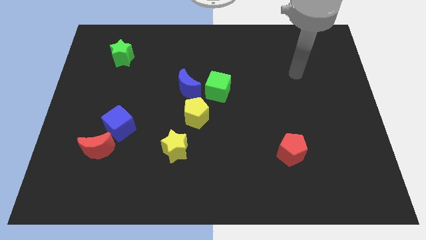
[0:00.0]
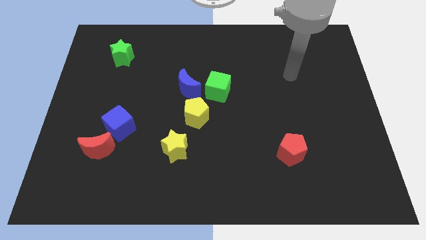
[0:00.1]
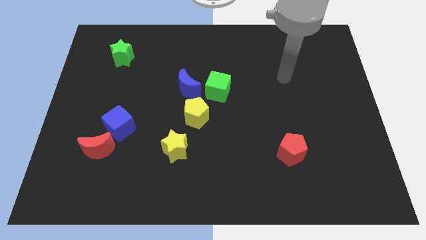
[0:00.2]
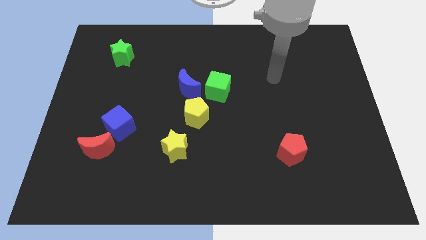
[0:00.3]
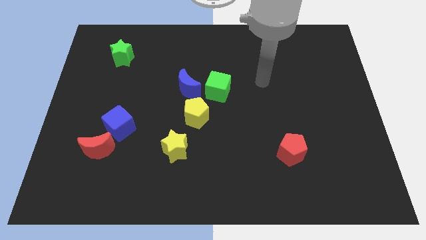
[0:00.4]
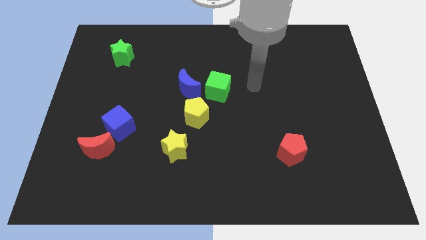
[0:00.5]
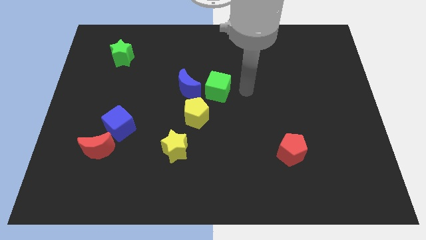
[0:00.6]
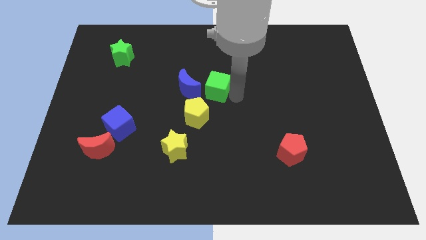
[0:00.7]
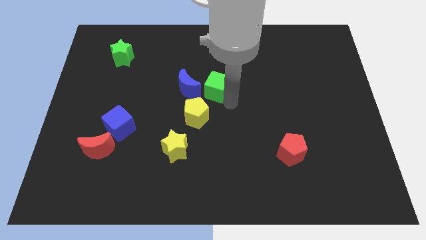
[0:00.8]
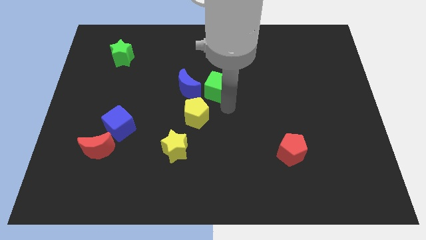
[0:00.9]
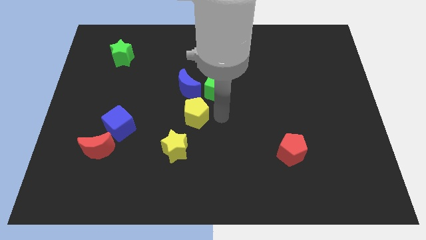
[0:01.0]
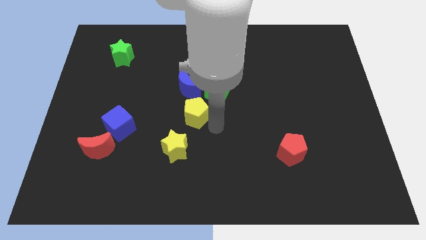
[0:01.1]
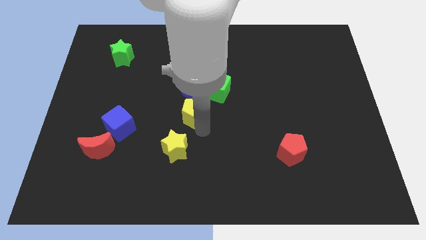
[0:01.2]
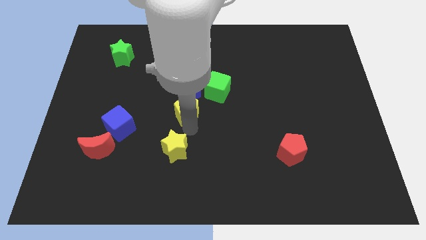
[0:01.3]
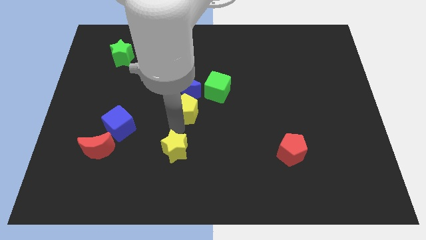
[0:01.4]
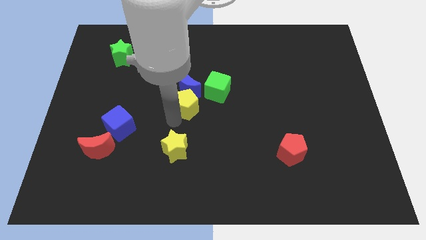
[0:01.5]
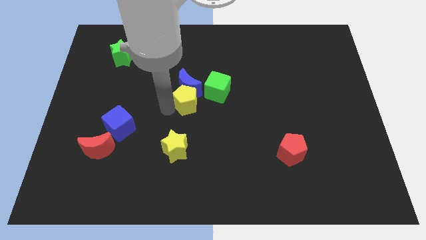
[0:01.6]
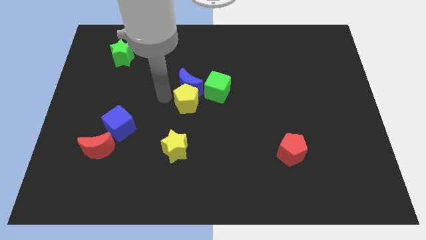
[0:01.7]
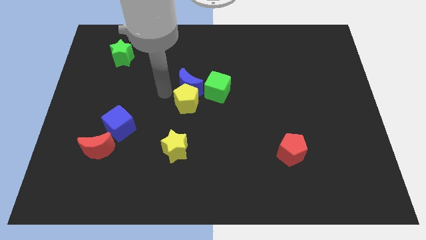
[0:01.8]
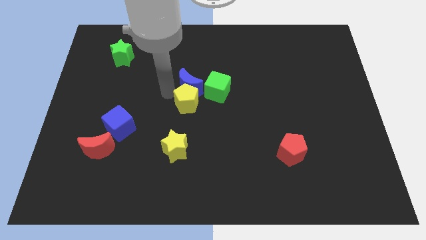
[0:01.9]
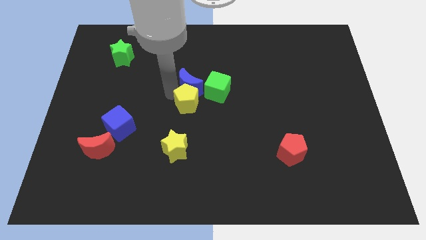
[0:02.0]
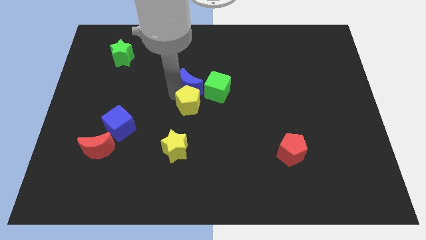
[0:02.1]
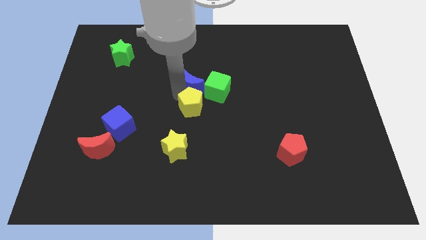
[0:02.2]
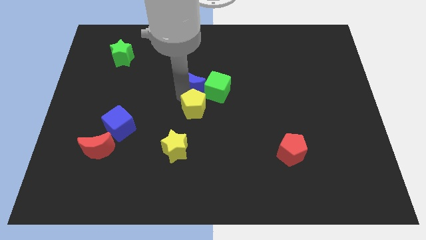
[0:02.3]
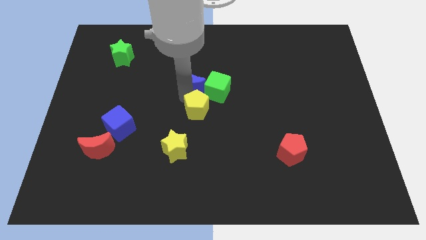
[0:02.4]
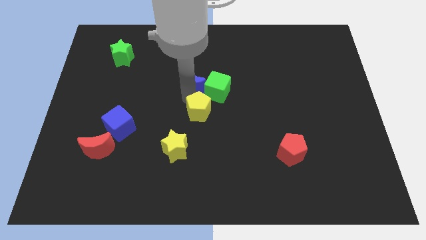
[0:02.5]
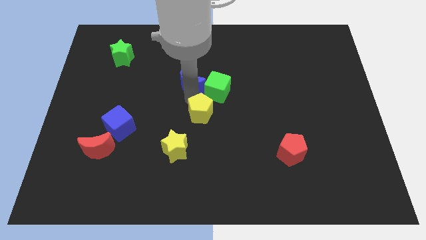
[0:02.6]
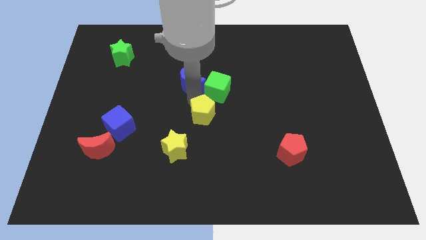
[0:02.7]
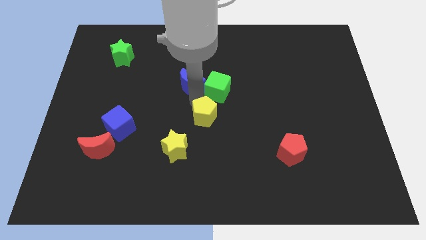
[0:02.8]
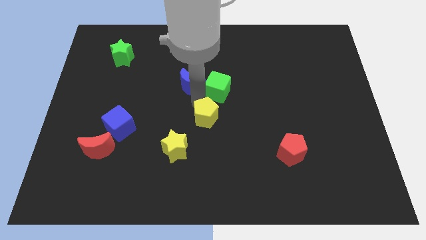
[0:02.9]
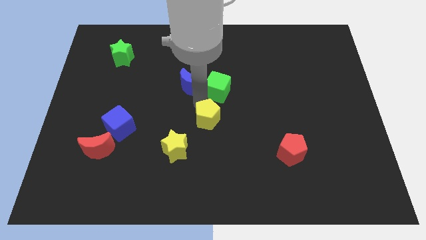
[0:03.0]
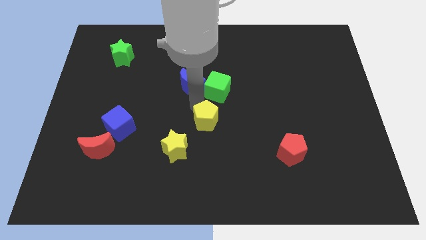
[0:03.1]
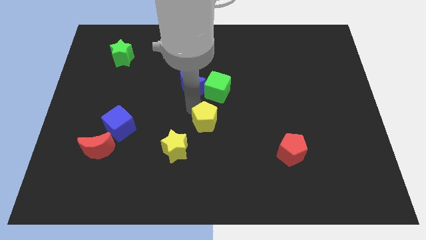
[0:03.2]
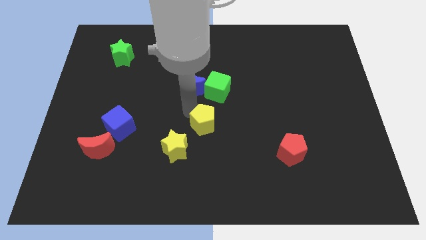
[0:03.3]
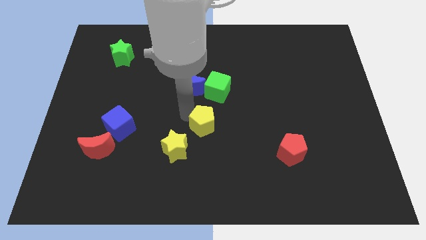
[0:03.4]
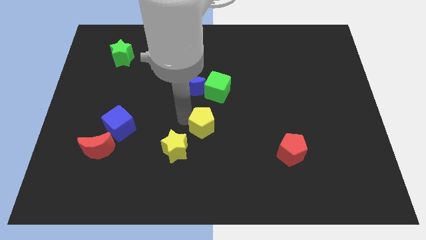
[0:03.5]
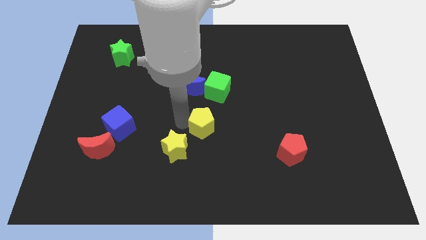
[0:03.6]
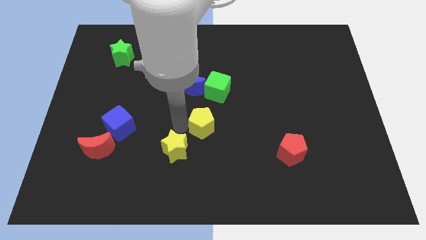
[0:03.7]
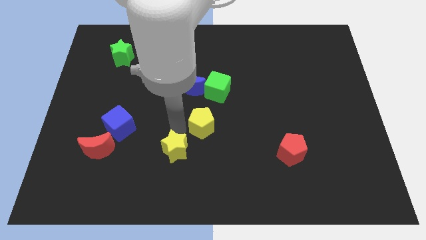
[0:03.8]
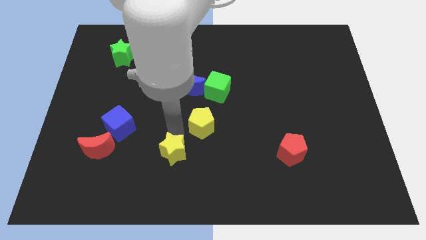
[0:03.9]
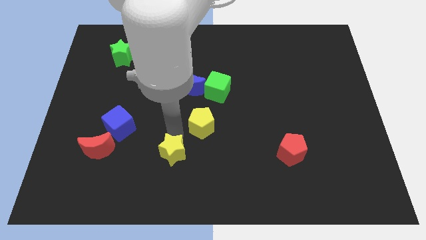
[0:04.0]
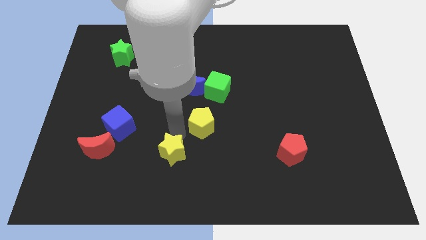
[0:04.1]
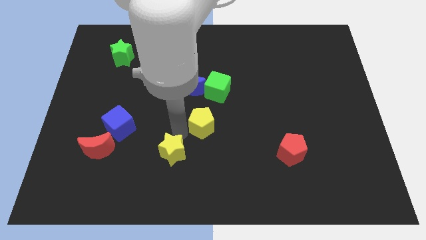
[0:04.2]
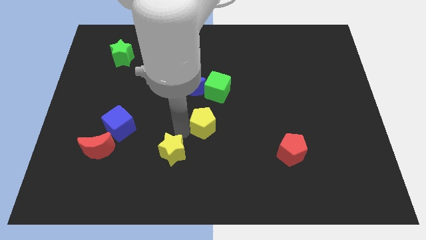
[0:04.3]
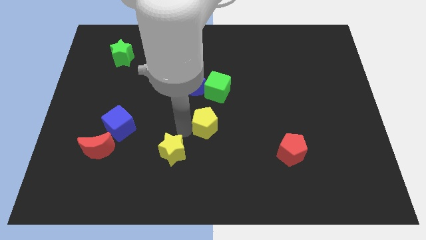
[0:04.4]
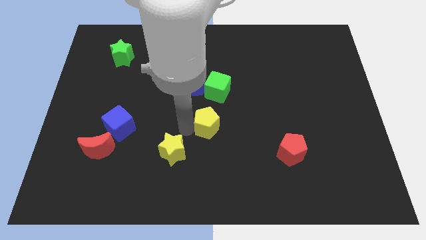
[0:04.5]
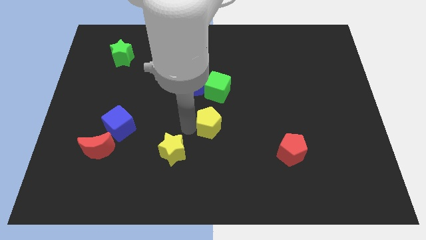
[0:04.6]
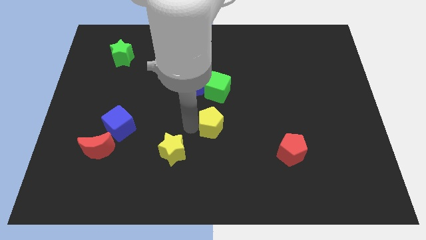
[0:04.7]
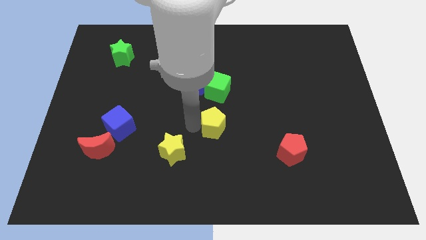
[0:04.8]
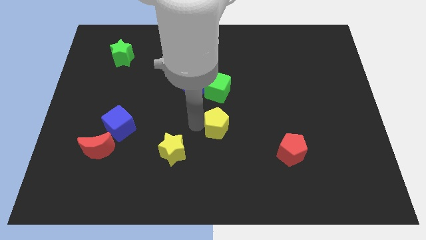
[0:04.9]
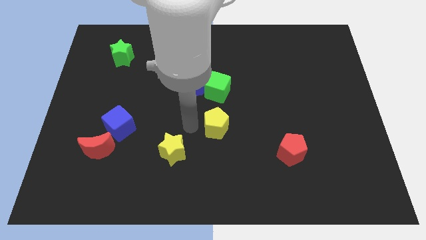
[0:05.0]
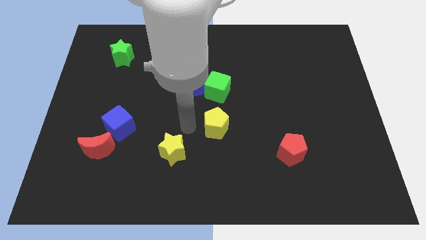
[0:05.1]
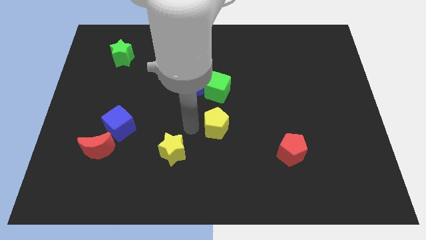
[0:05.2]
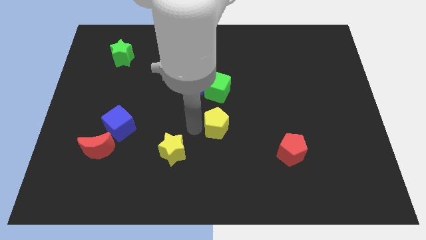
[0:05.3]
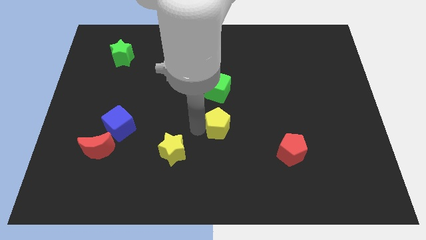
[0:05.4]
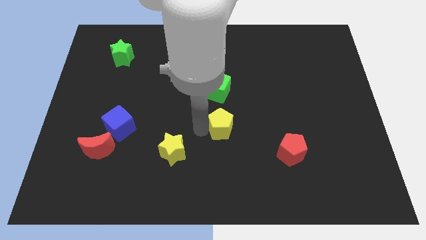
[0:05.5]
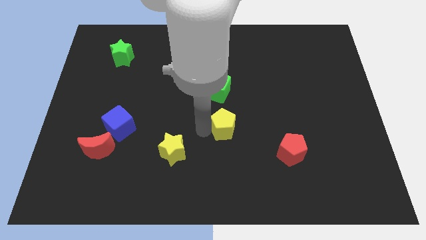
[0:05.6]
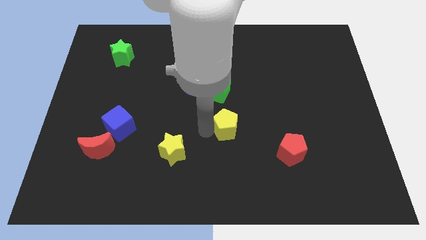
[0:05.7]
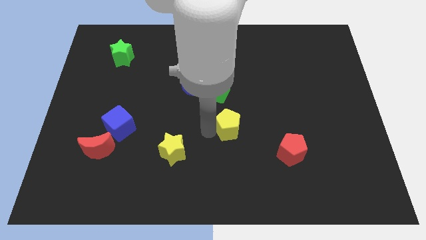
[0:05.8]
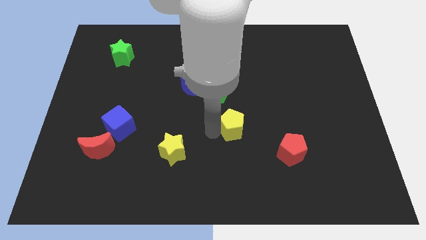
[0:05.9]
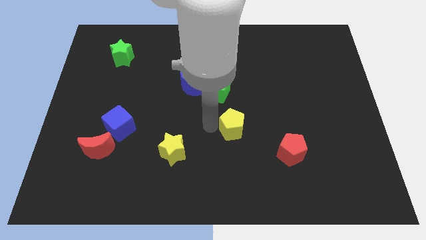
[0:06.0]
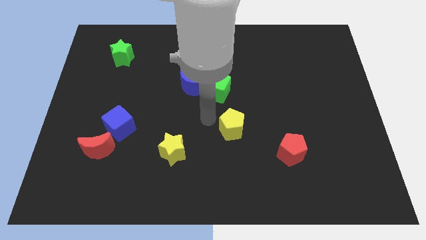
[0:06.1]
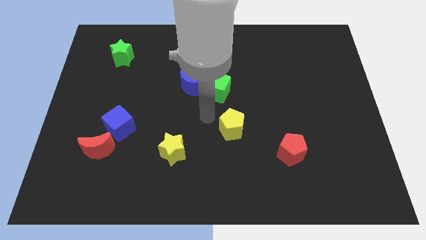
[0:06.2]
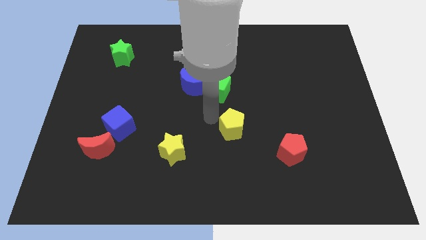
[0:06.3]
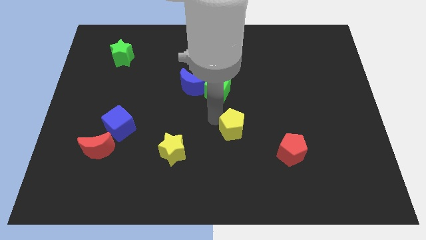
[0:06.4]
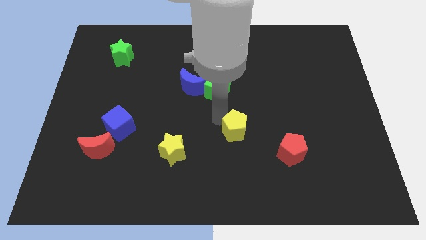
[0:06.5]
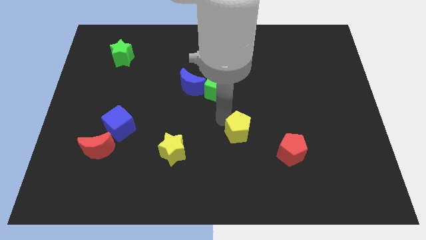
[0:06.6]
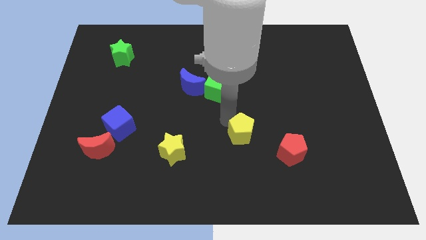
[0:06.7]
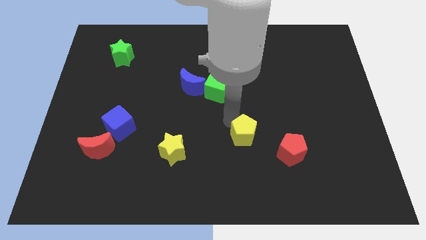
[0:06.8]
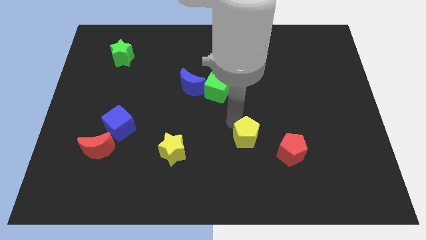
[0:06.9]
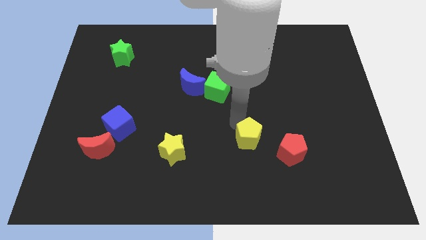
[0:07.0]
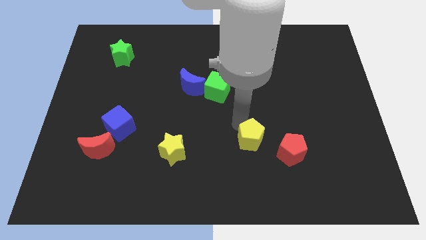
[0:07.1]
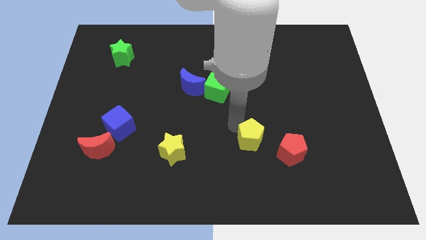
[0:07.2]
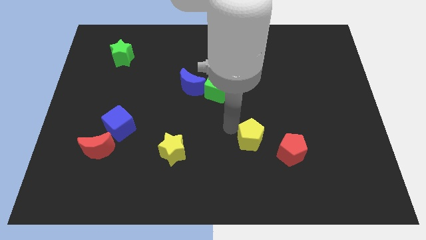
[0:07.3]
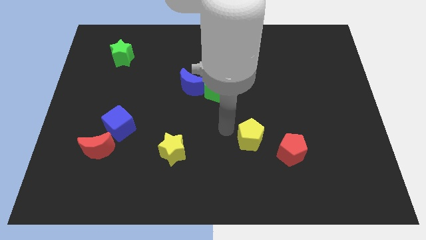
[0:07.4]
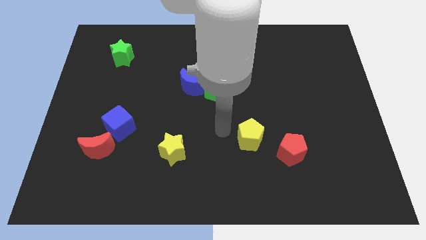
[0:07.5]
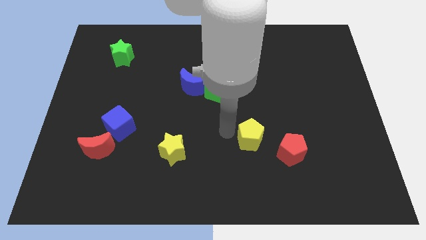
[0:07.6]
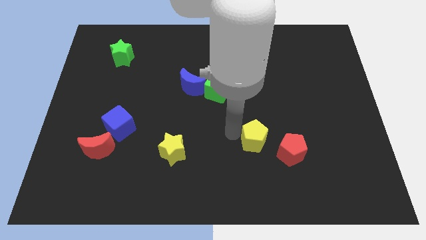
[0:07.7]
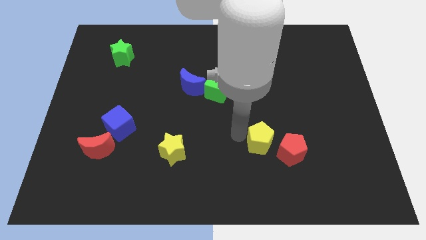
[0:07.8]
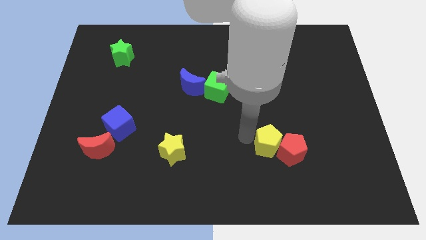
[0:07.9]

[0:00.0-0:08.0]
put the yellow pentagon next to the red pentagon
